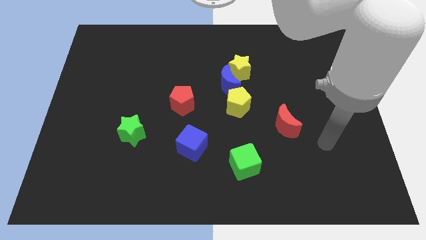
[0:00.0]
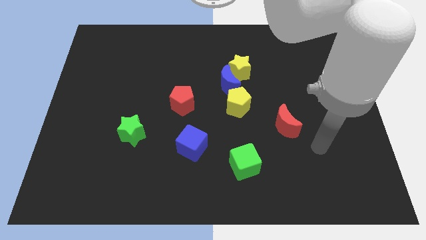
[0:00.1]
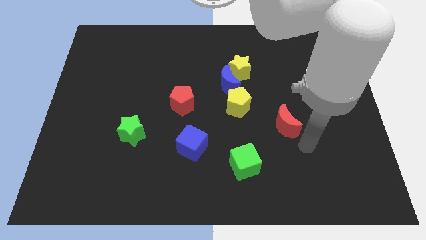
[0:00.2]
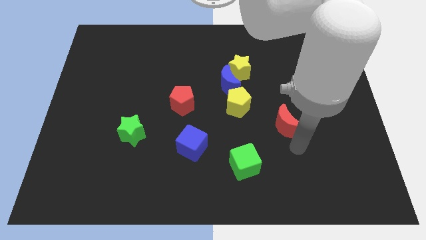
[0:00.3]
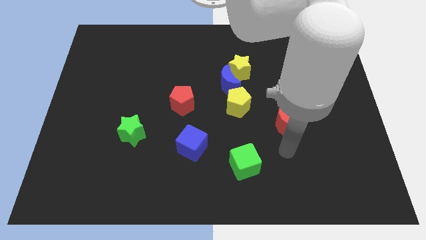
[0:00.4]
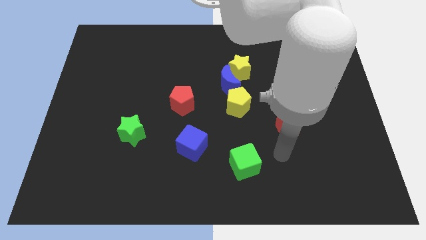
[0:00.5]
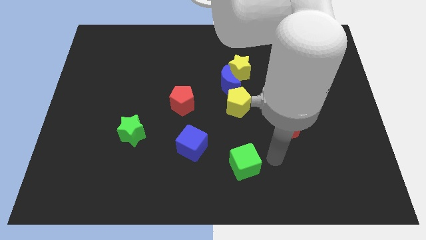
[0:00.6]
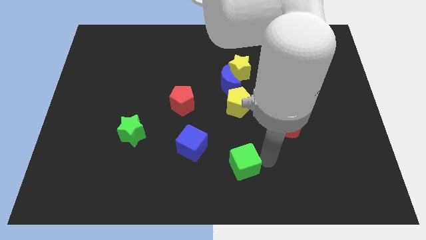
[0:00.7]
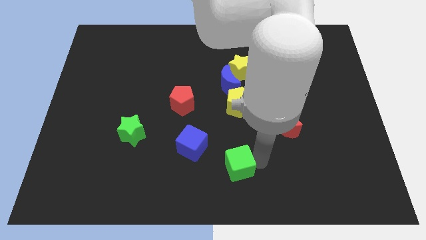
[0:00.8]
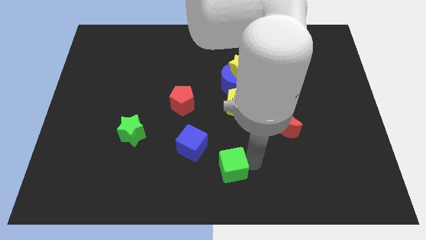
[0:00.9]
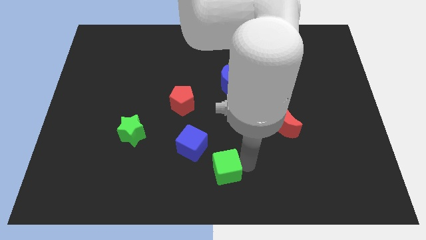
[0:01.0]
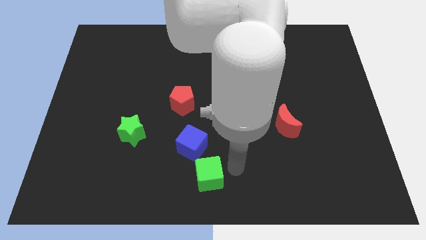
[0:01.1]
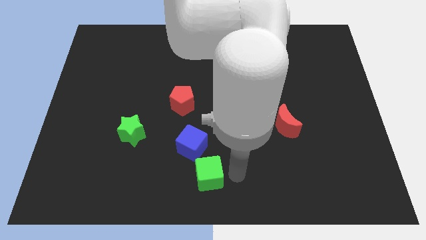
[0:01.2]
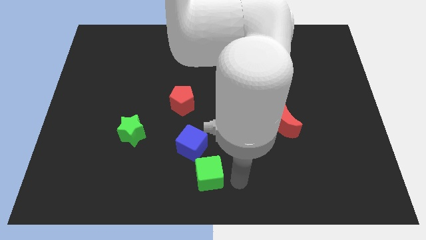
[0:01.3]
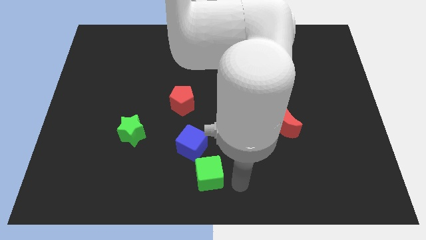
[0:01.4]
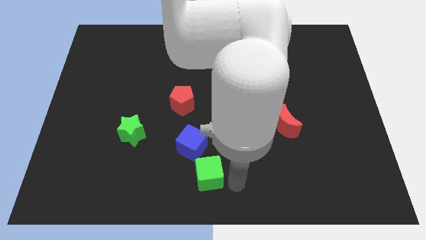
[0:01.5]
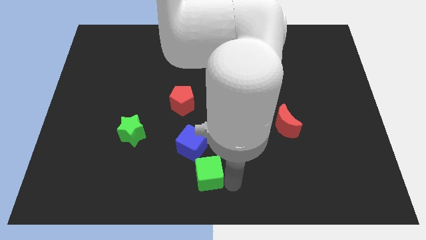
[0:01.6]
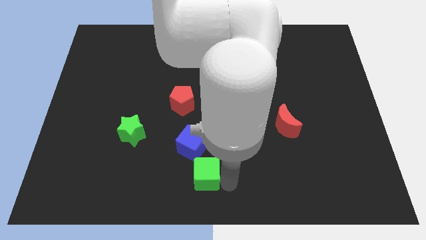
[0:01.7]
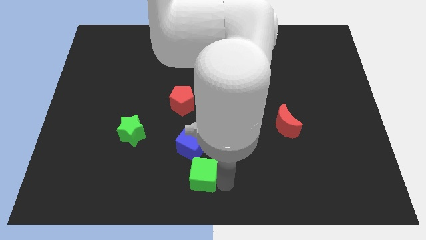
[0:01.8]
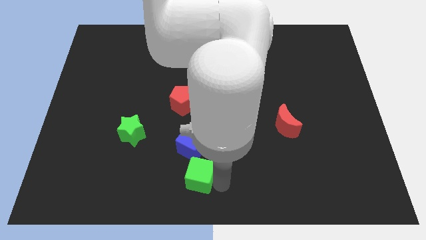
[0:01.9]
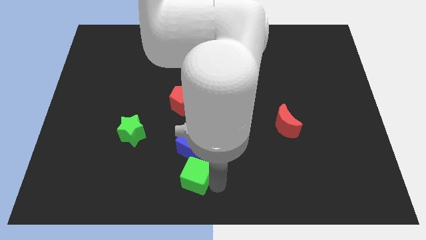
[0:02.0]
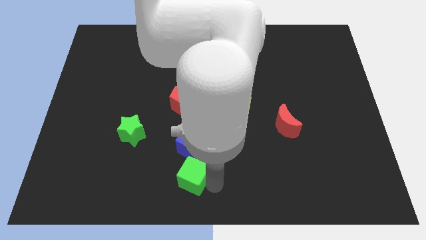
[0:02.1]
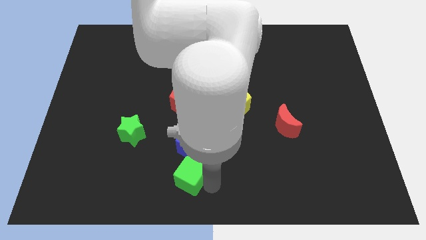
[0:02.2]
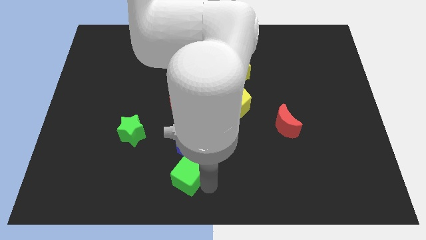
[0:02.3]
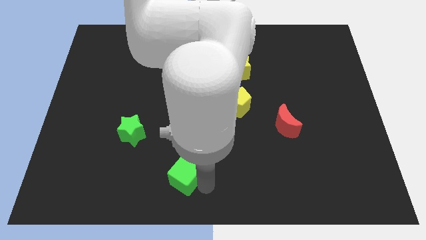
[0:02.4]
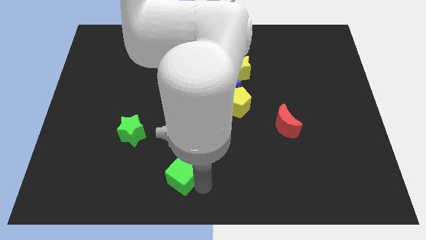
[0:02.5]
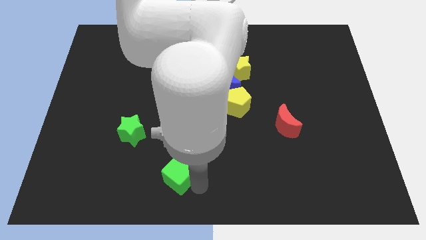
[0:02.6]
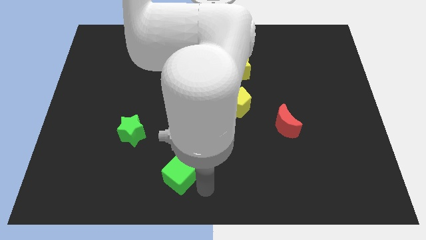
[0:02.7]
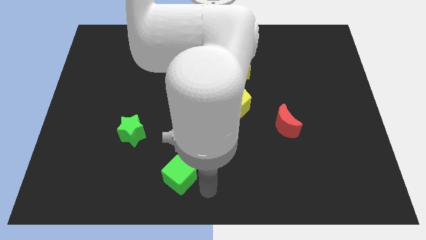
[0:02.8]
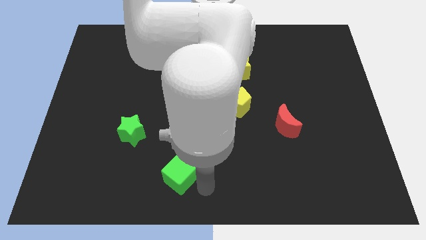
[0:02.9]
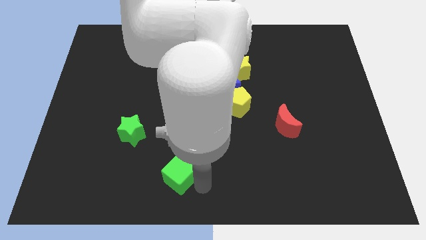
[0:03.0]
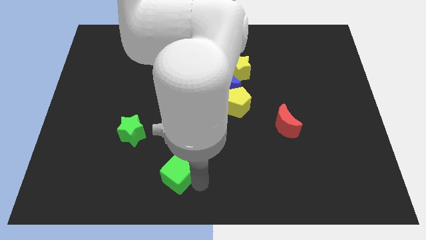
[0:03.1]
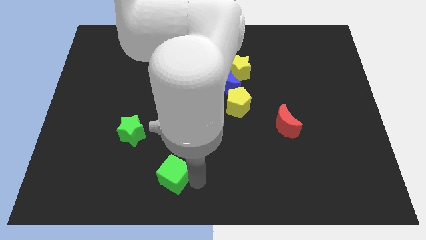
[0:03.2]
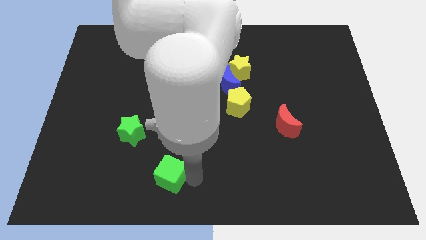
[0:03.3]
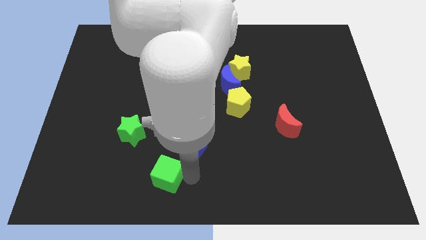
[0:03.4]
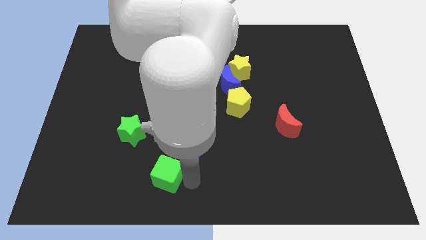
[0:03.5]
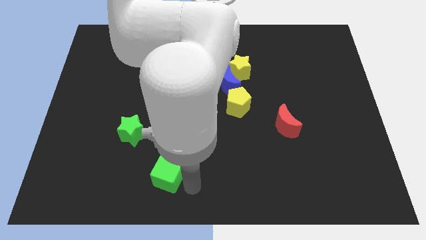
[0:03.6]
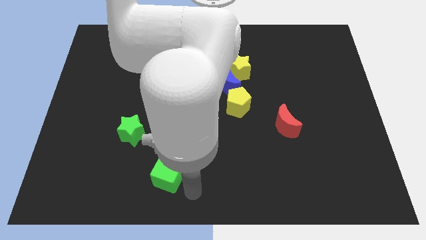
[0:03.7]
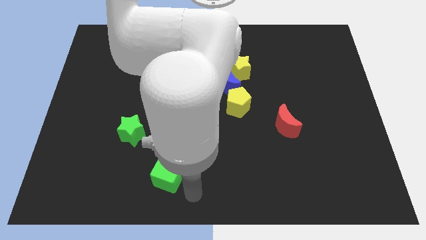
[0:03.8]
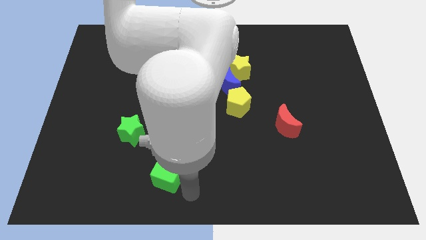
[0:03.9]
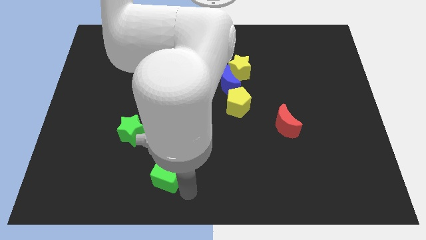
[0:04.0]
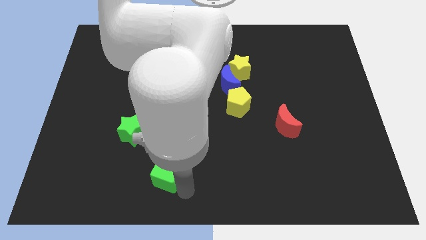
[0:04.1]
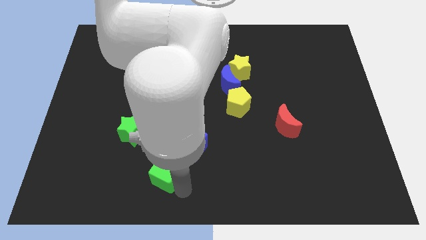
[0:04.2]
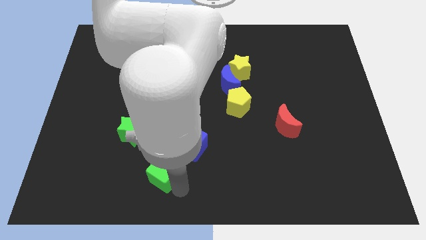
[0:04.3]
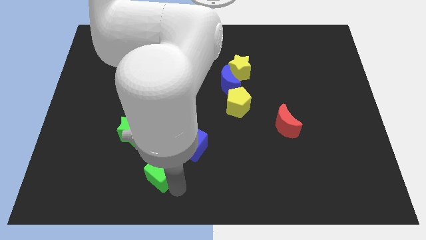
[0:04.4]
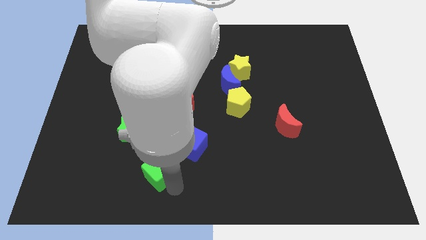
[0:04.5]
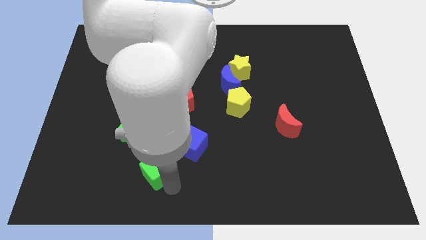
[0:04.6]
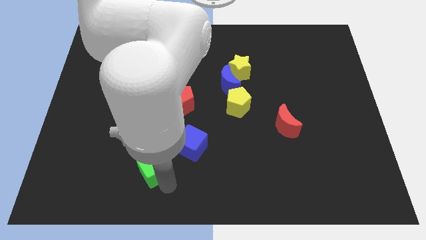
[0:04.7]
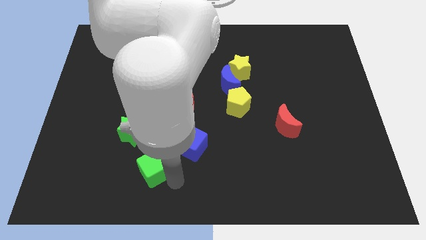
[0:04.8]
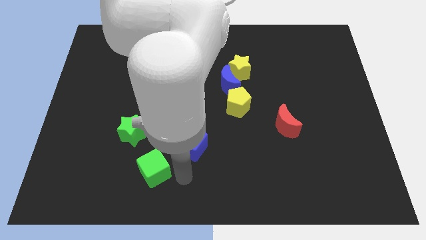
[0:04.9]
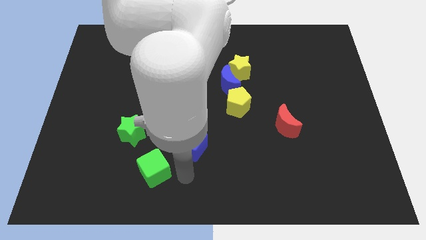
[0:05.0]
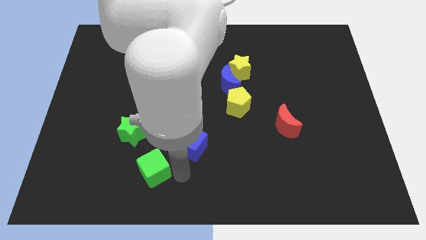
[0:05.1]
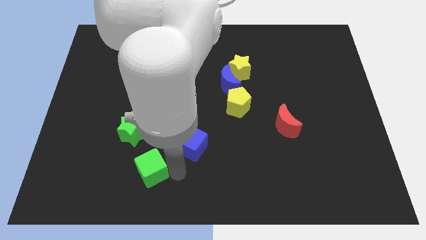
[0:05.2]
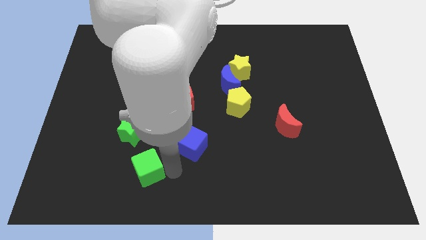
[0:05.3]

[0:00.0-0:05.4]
slide the green cube to the left

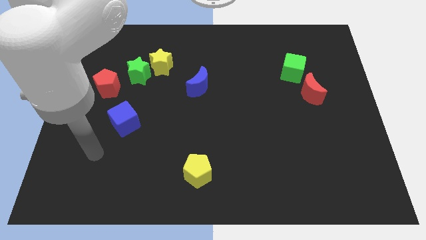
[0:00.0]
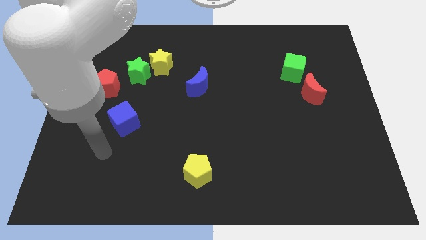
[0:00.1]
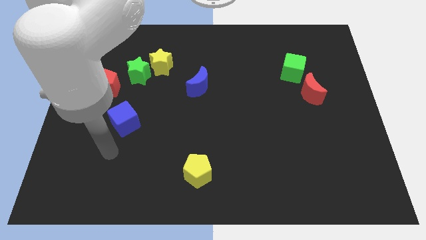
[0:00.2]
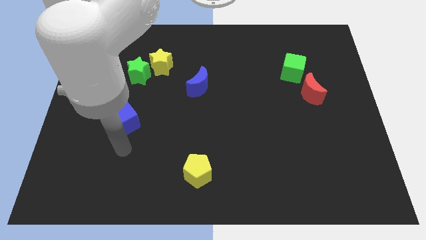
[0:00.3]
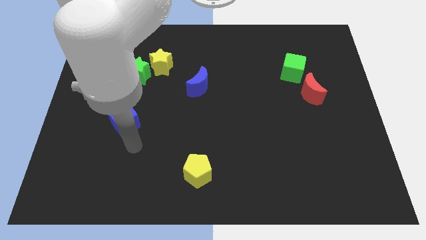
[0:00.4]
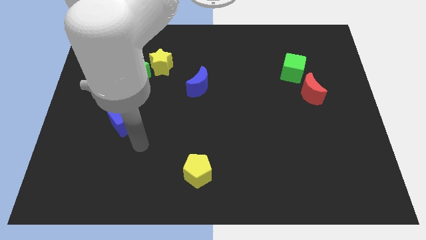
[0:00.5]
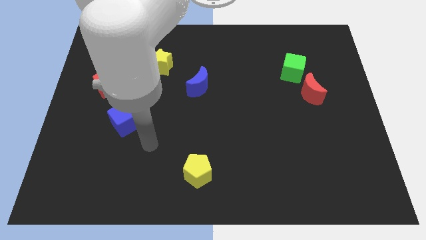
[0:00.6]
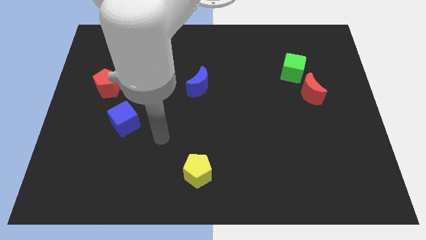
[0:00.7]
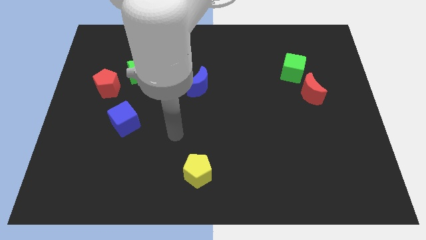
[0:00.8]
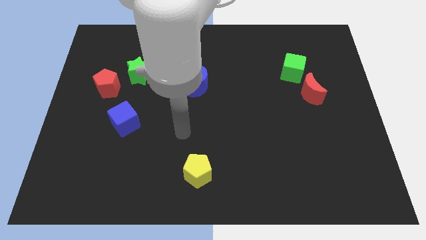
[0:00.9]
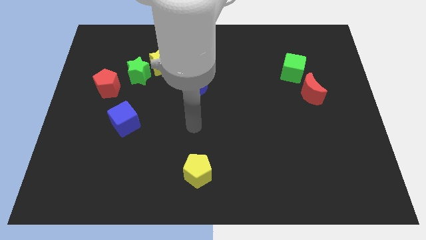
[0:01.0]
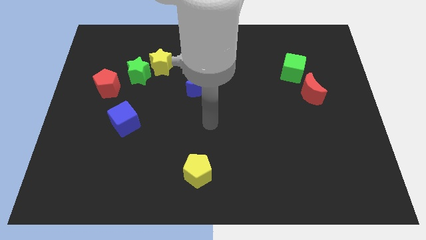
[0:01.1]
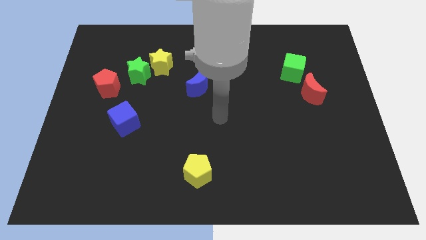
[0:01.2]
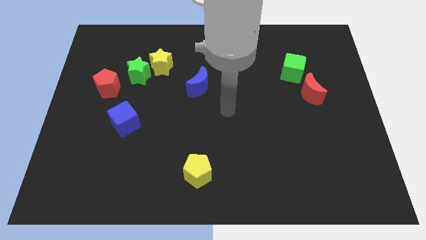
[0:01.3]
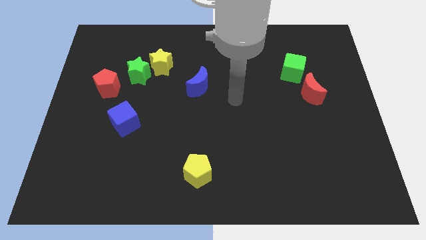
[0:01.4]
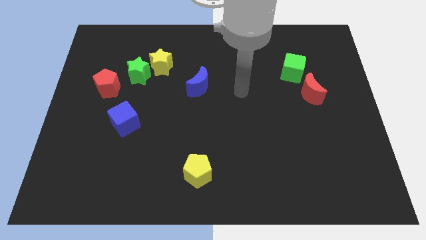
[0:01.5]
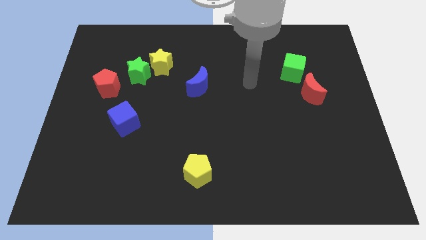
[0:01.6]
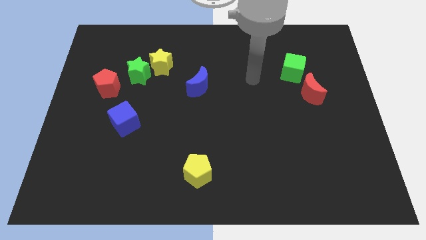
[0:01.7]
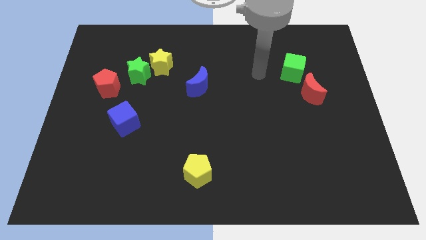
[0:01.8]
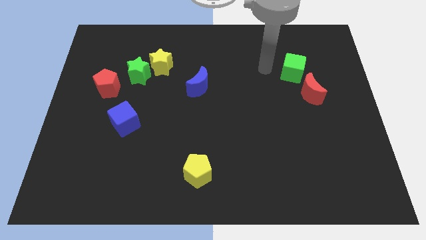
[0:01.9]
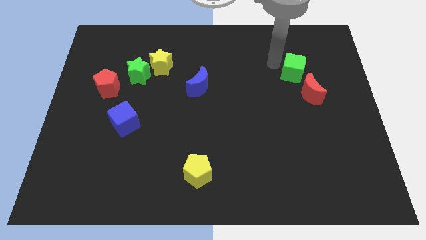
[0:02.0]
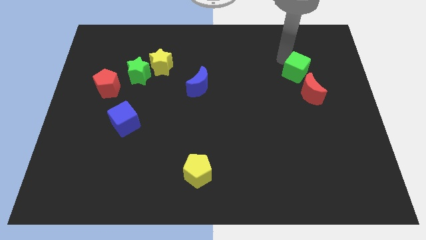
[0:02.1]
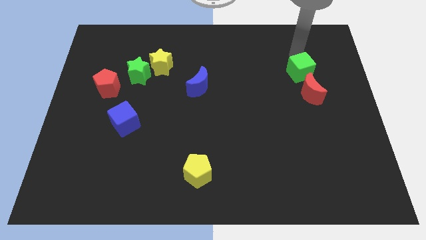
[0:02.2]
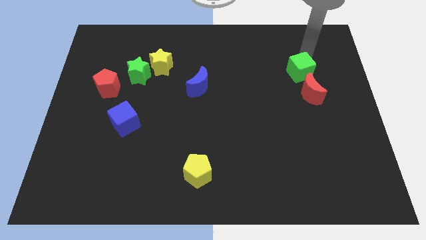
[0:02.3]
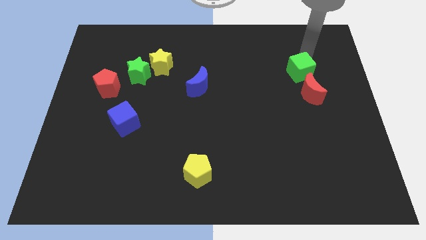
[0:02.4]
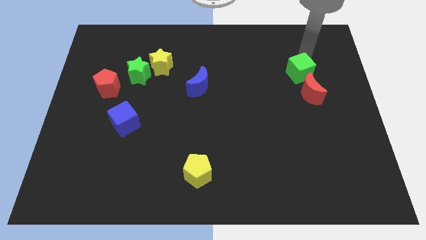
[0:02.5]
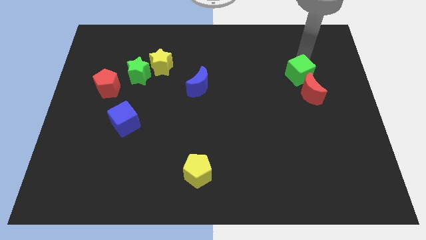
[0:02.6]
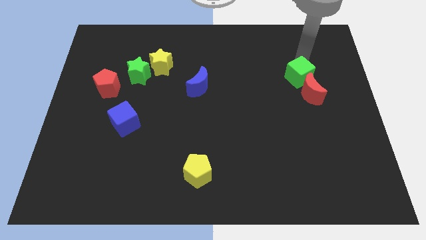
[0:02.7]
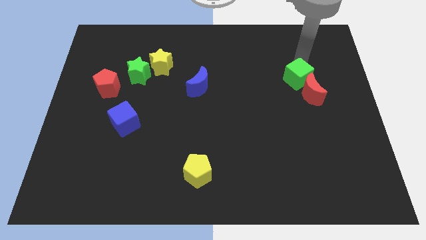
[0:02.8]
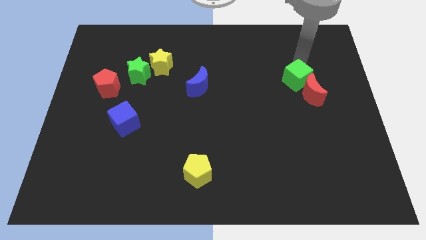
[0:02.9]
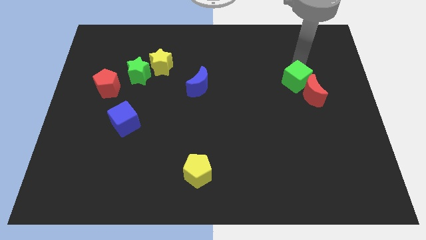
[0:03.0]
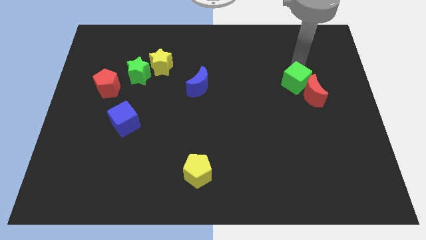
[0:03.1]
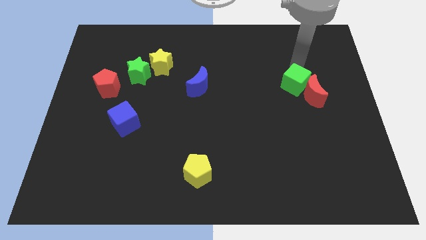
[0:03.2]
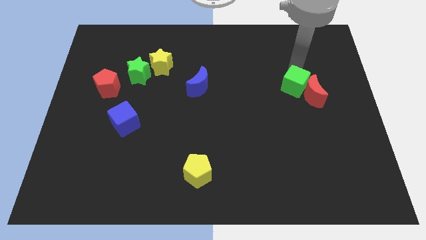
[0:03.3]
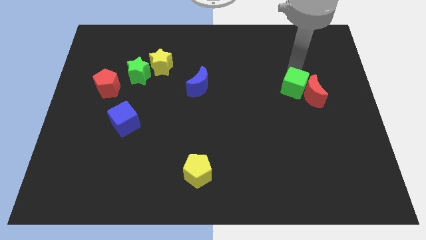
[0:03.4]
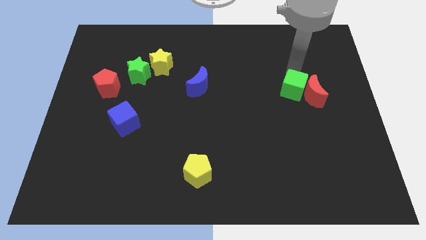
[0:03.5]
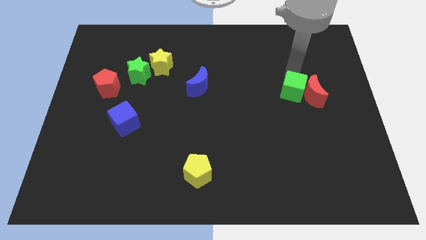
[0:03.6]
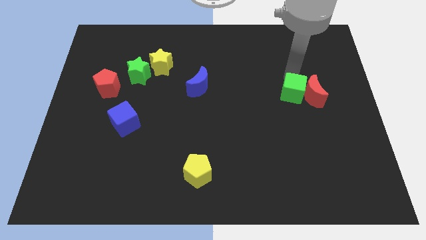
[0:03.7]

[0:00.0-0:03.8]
slightly push the green cube down
